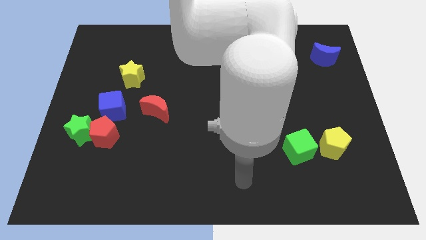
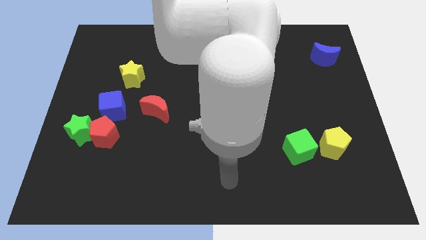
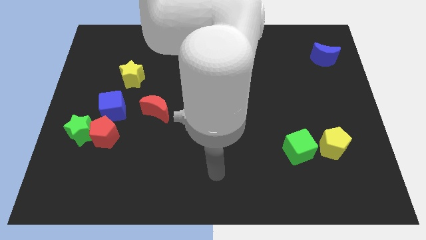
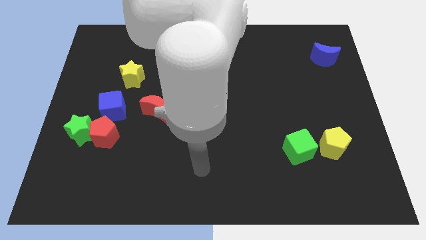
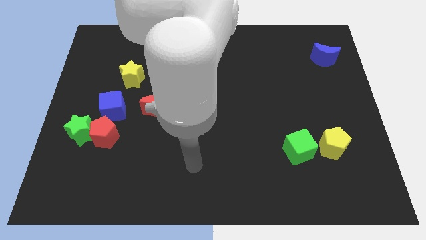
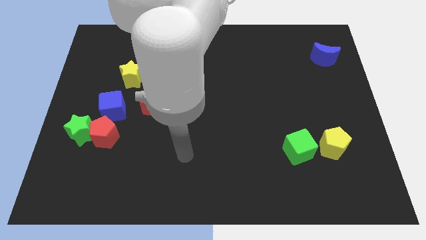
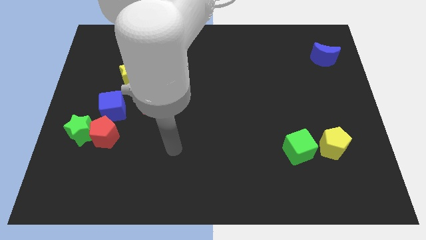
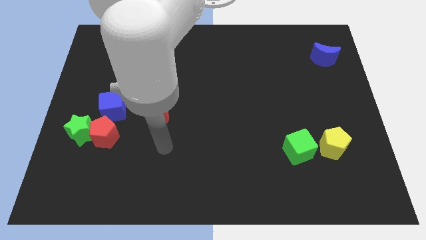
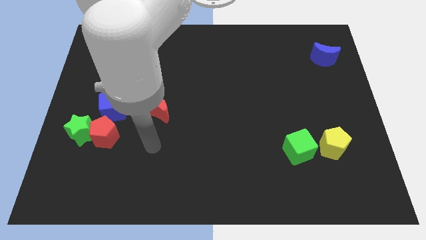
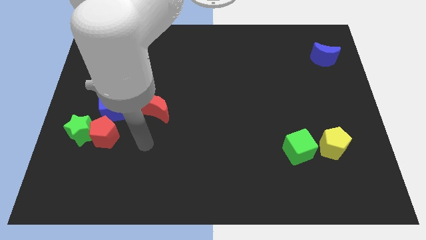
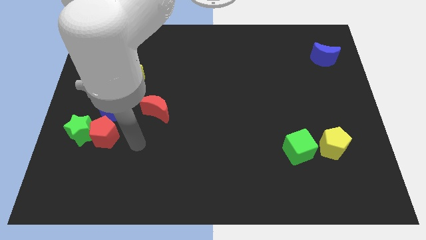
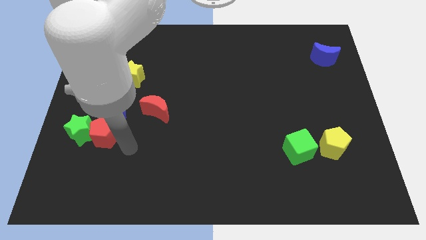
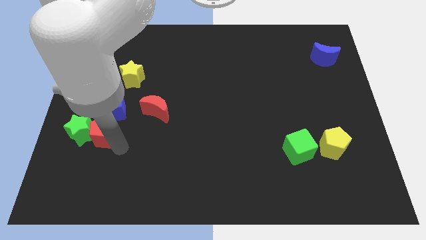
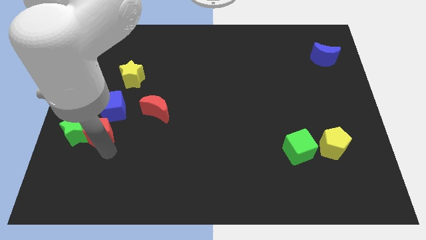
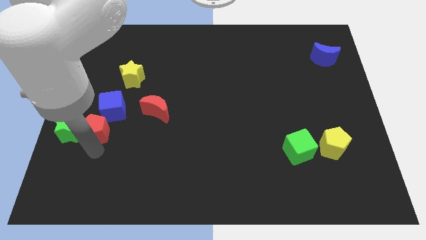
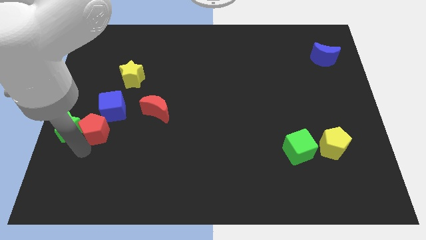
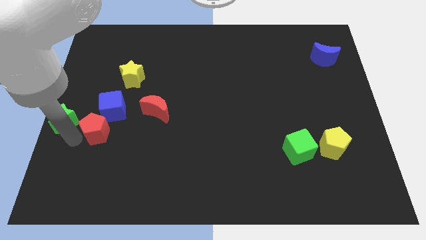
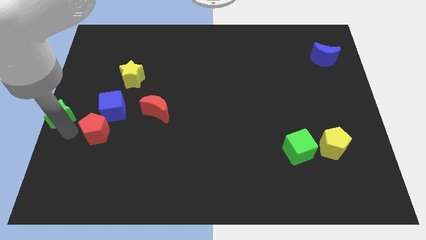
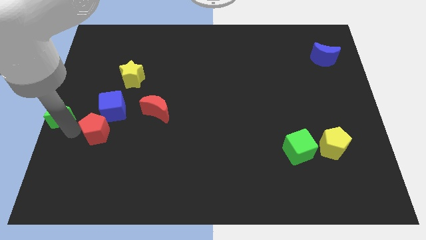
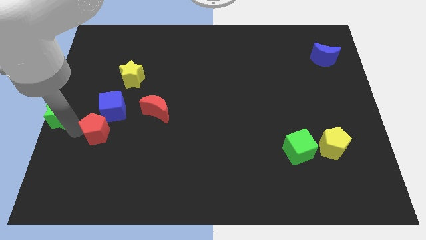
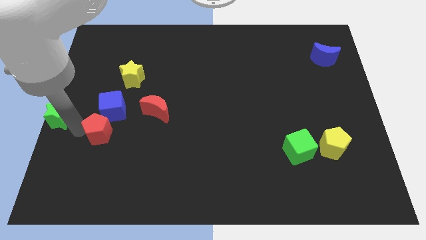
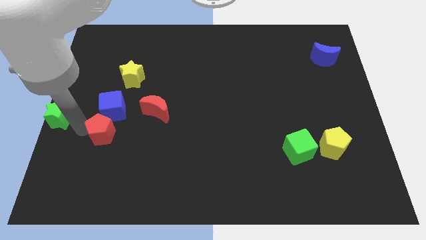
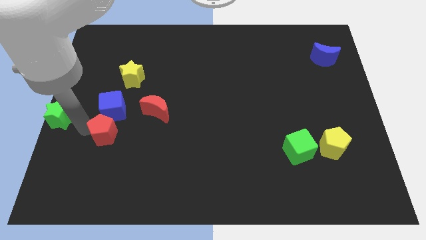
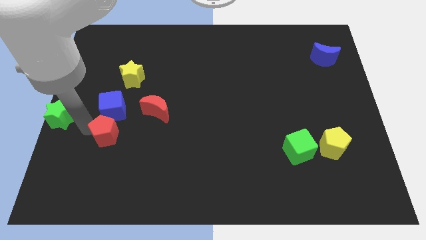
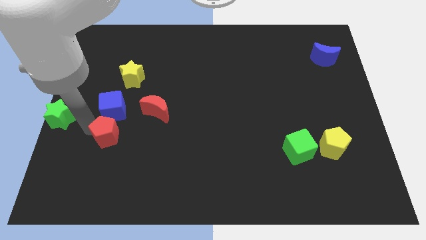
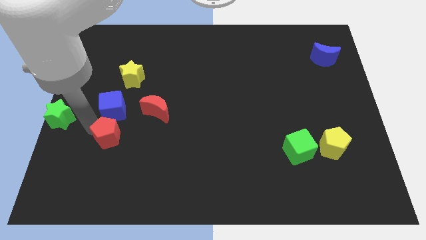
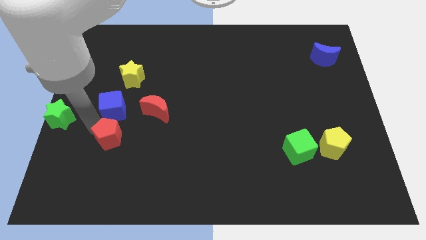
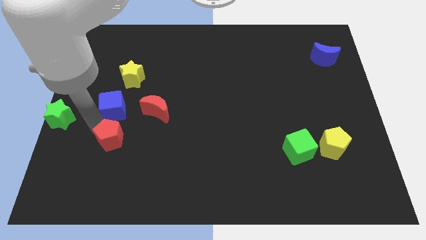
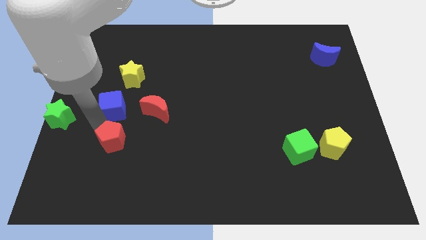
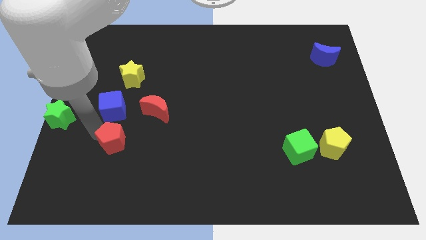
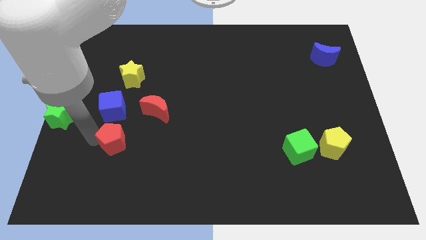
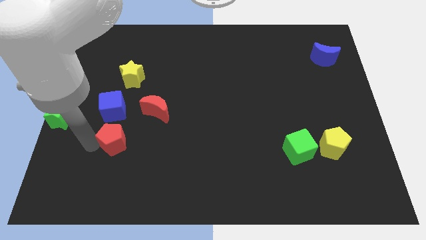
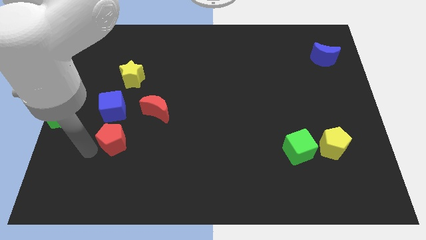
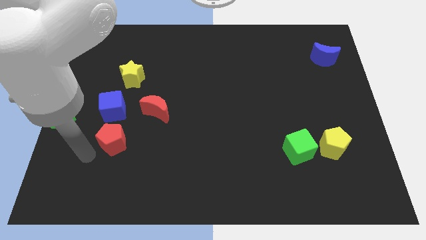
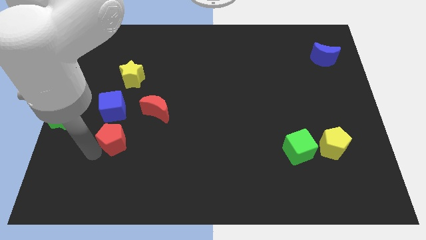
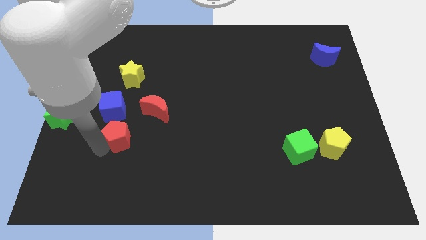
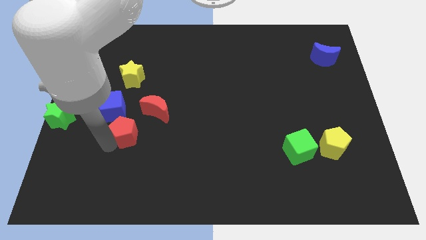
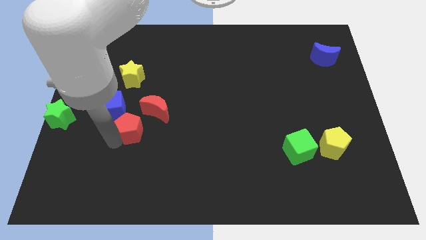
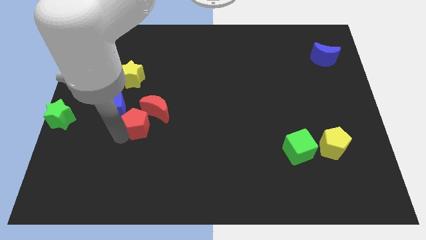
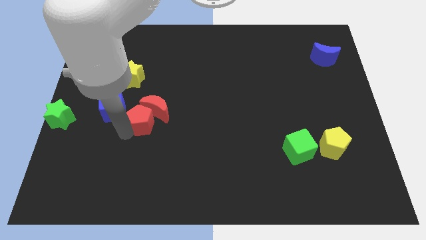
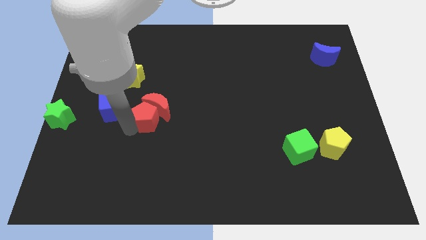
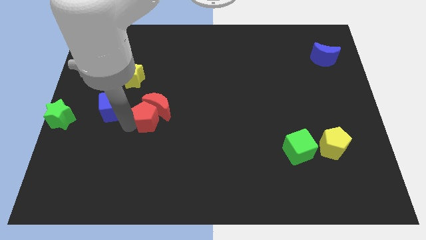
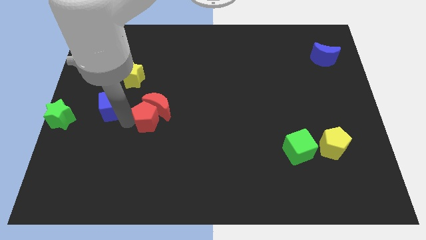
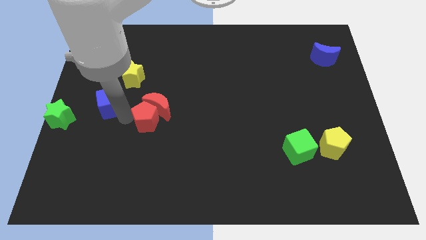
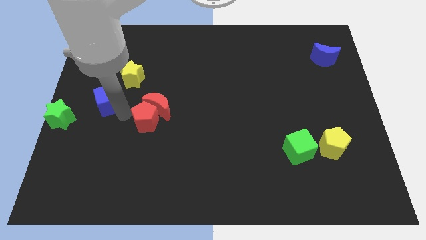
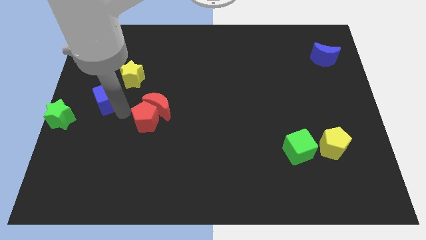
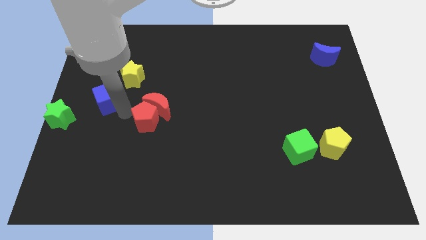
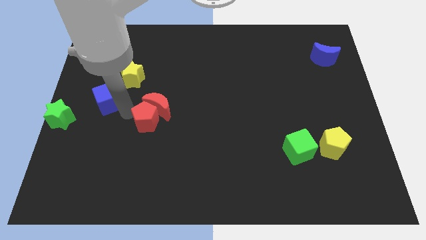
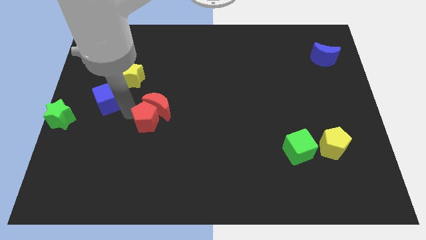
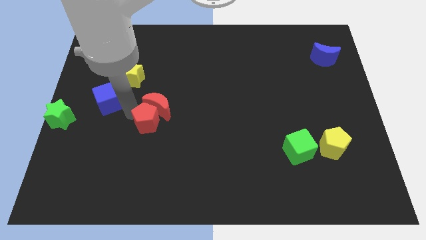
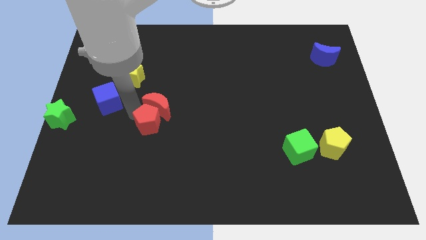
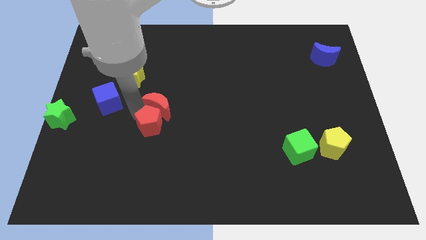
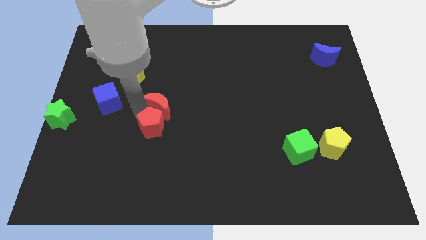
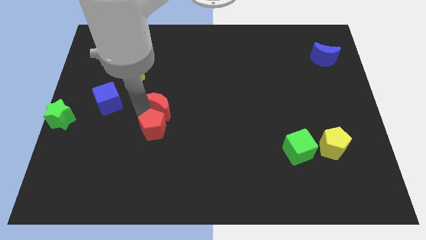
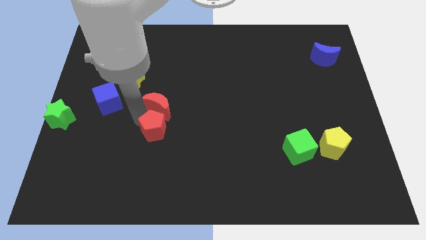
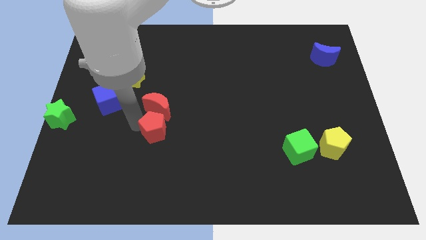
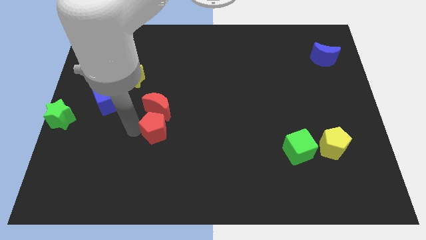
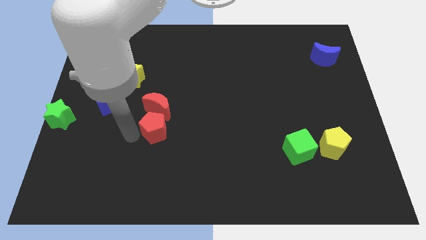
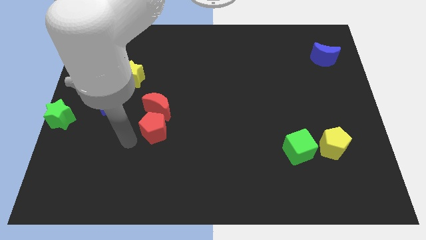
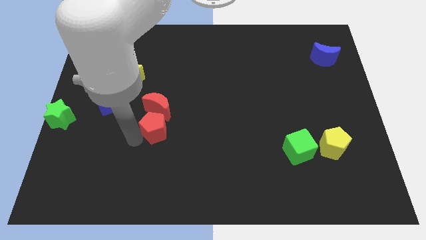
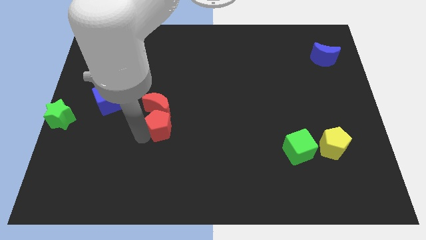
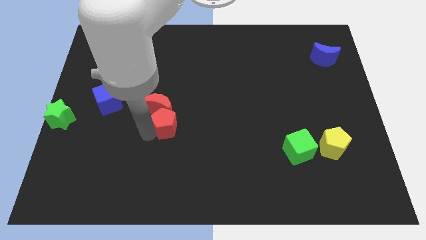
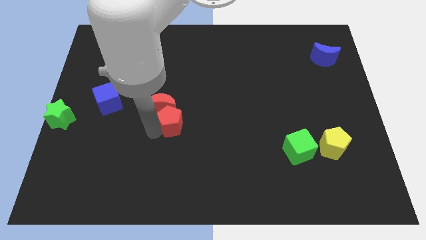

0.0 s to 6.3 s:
put the red pentagon to the center of the board
